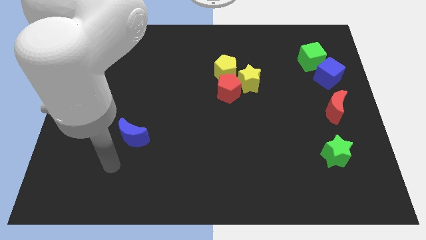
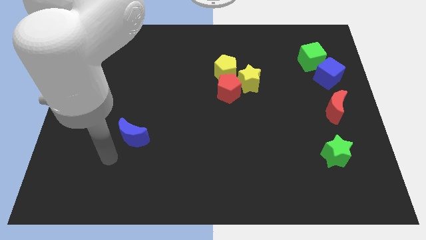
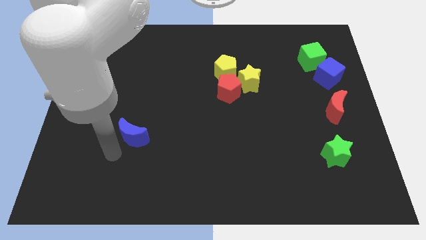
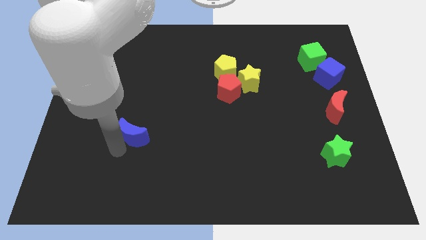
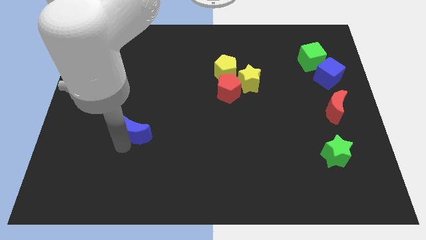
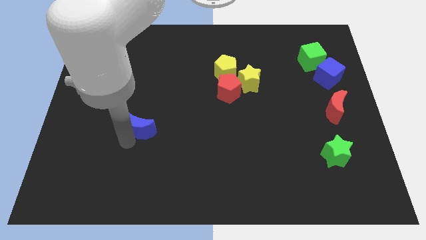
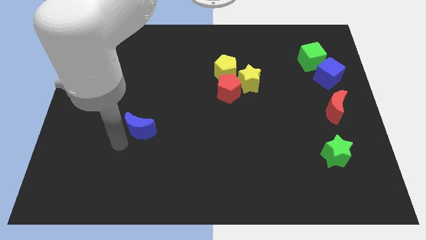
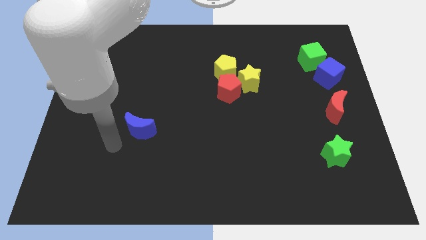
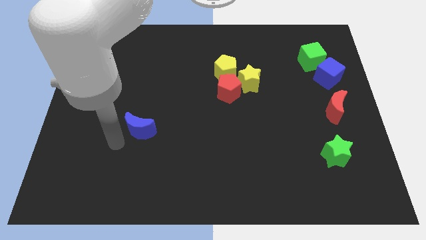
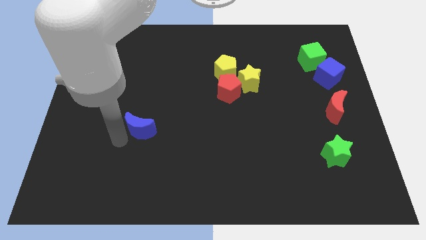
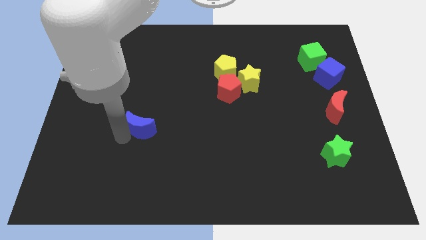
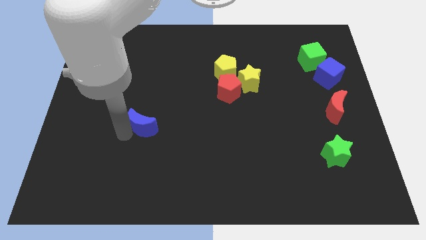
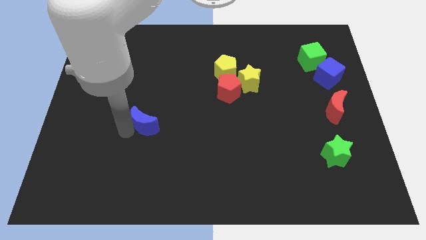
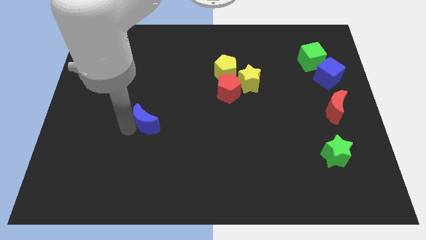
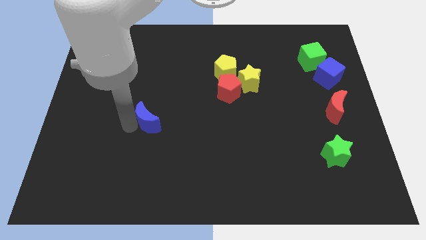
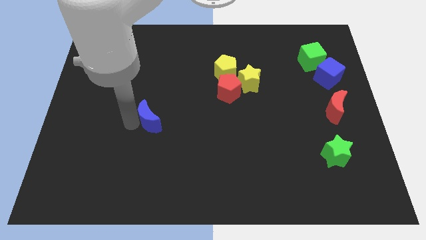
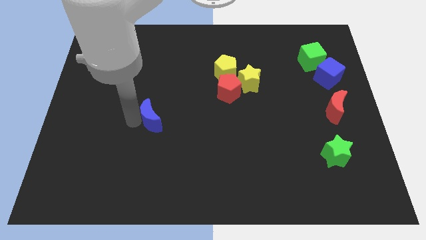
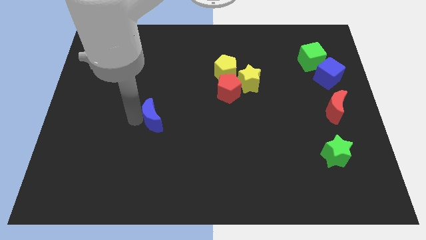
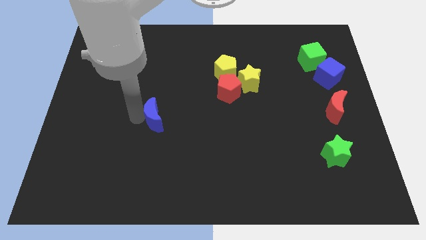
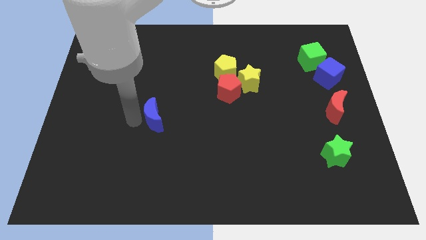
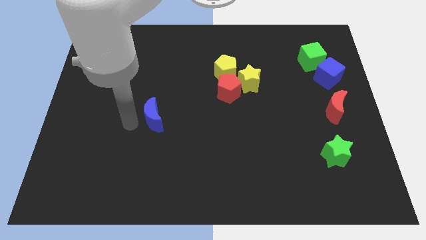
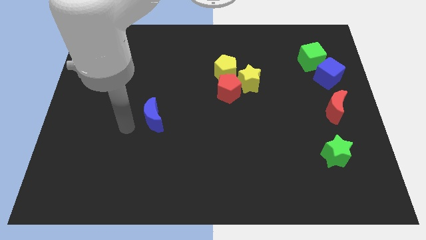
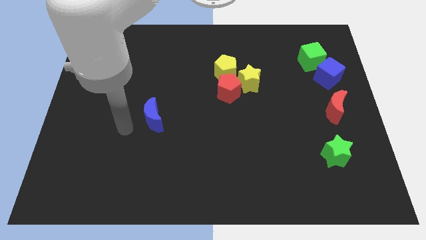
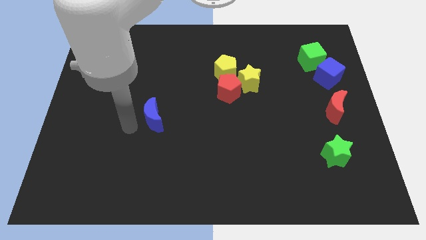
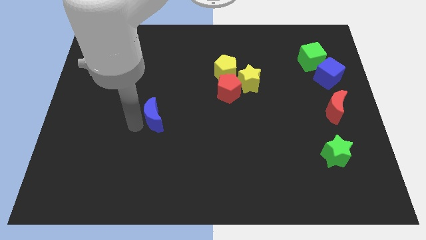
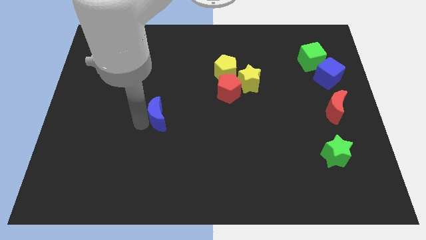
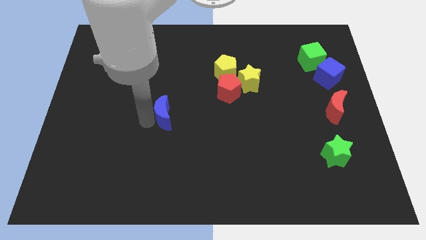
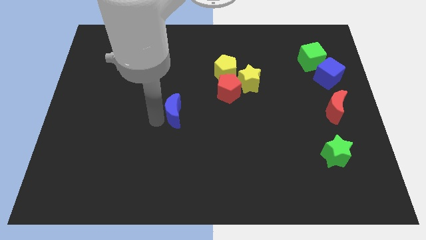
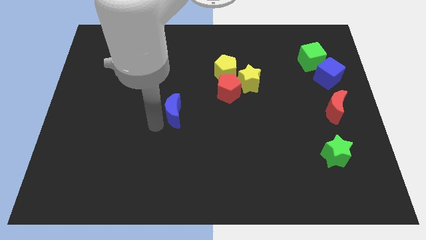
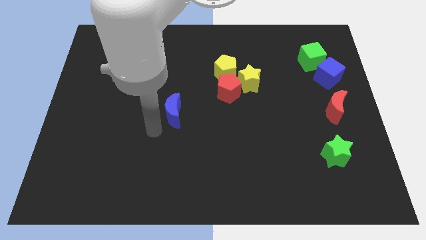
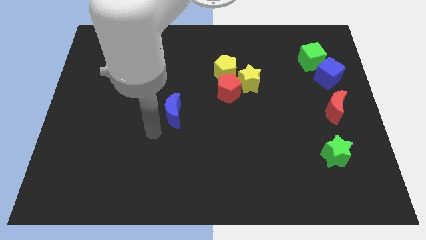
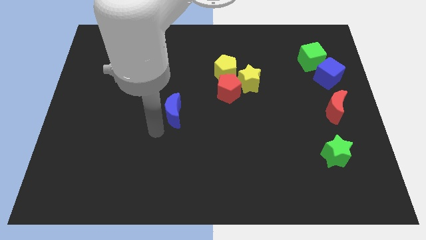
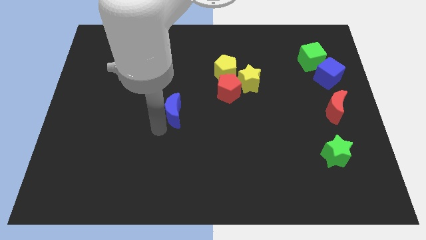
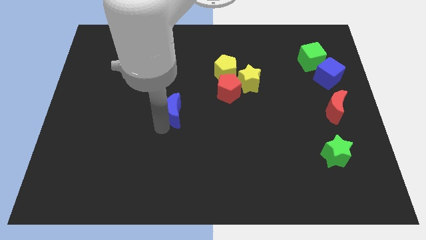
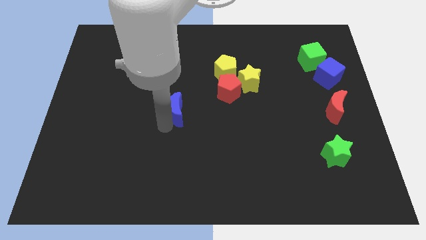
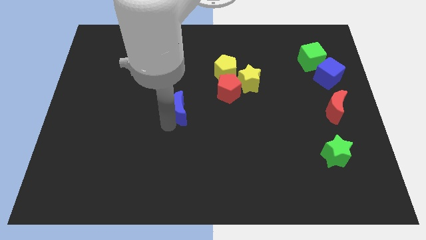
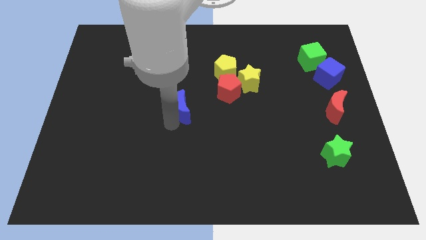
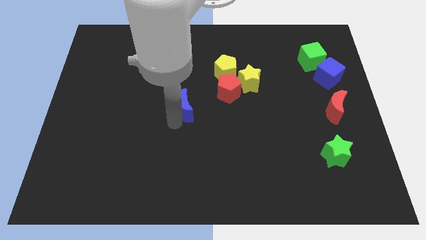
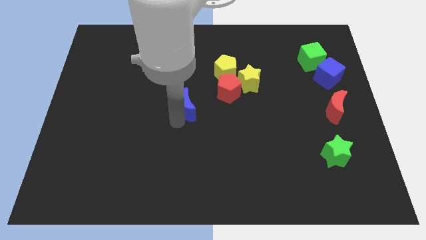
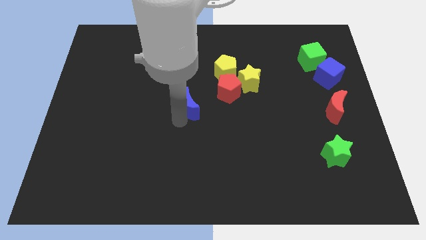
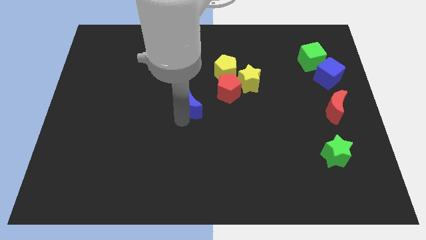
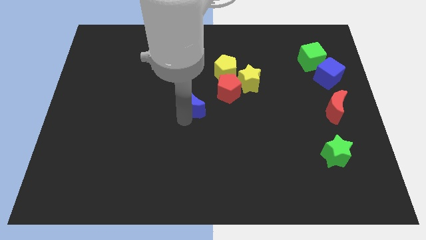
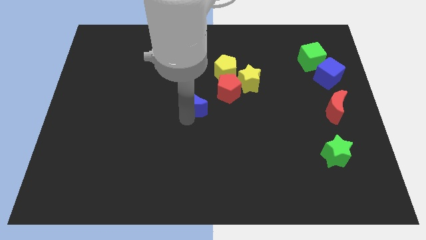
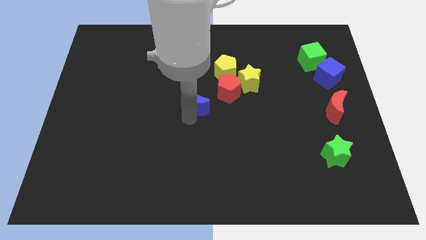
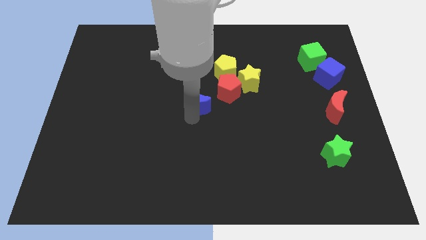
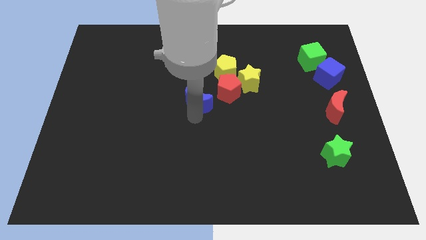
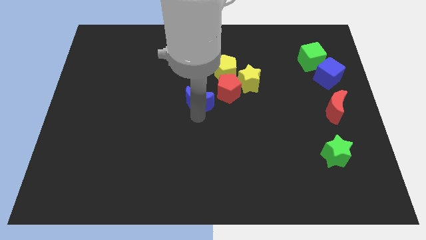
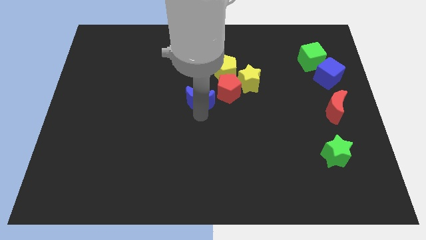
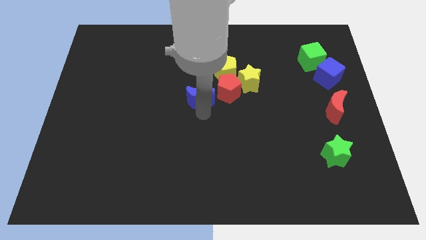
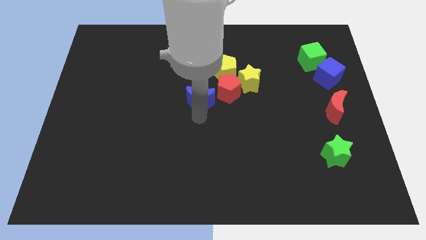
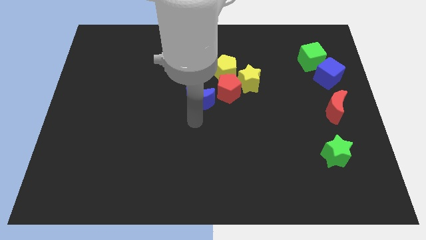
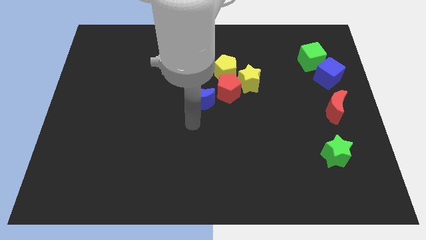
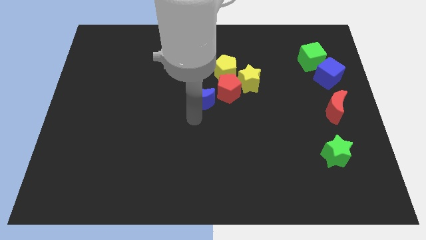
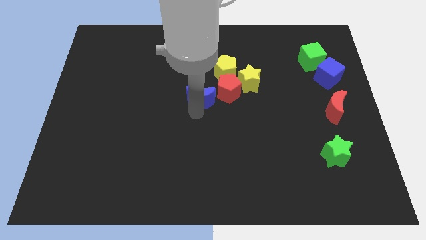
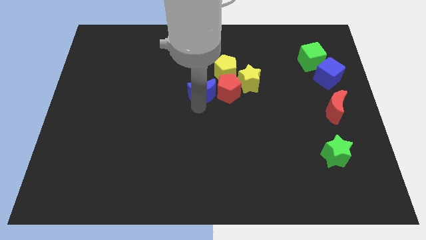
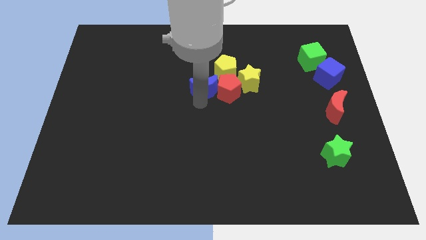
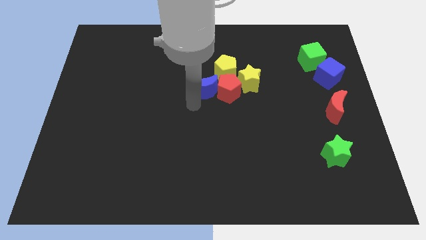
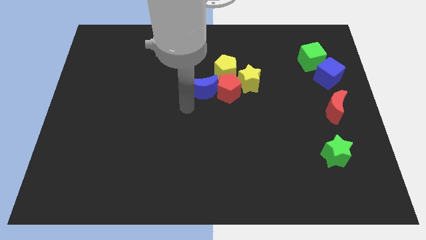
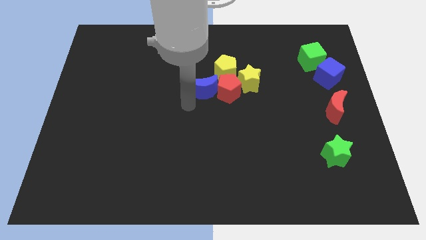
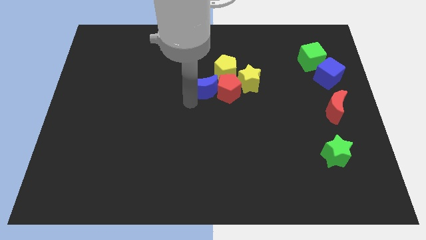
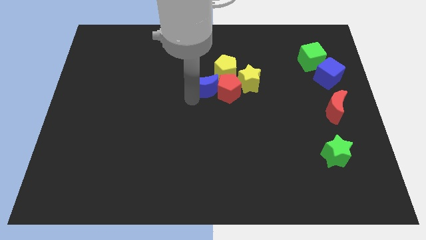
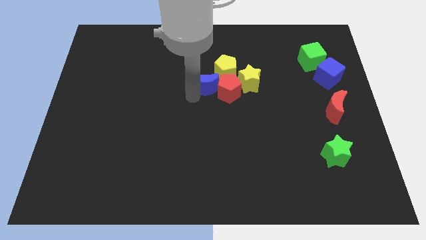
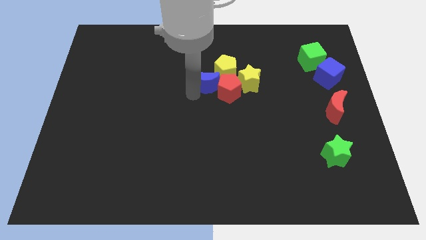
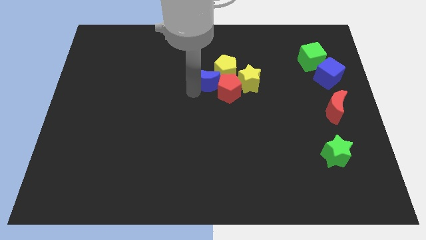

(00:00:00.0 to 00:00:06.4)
move the blue moon next to the yellow pentagon
